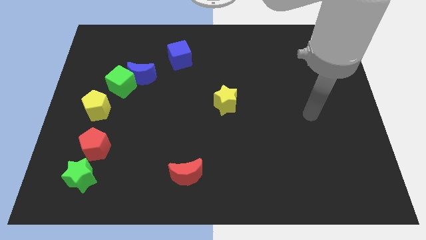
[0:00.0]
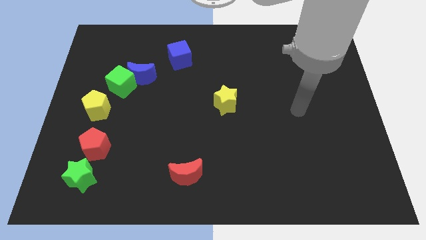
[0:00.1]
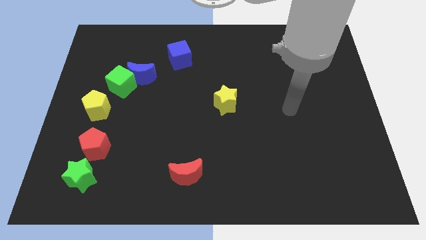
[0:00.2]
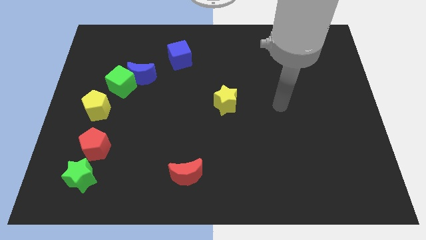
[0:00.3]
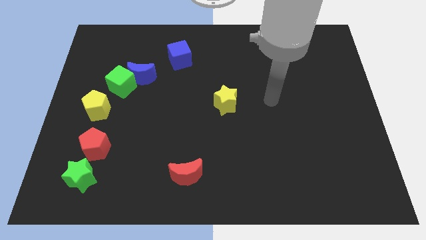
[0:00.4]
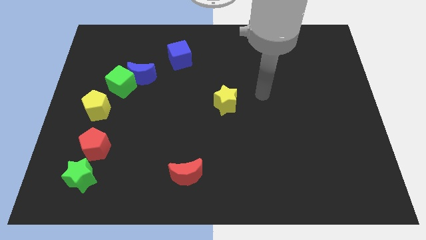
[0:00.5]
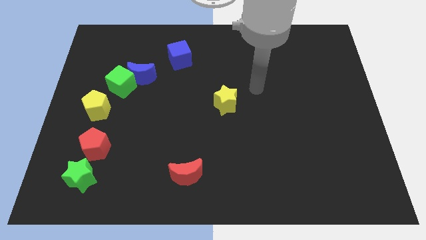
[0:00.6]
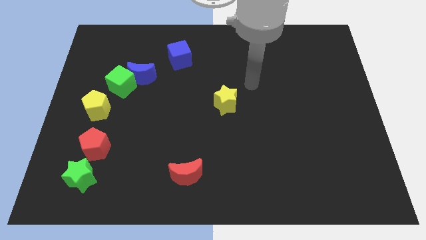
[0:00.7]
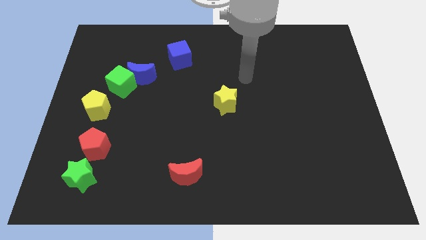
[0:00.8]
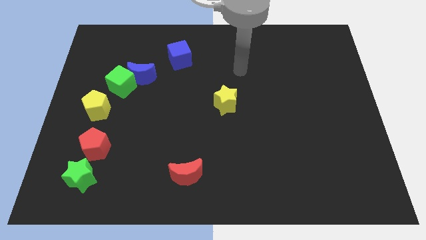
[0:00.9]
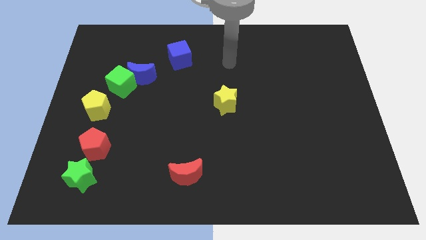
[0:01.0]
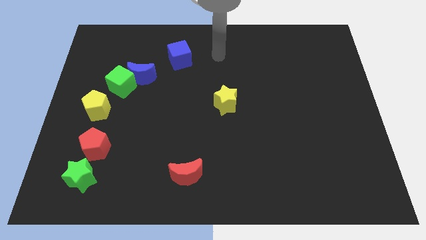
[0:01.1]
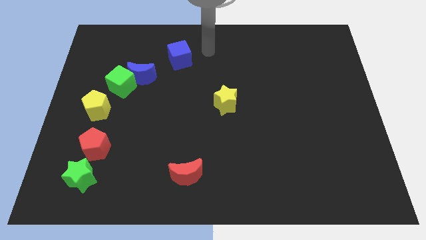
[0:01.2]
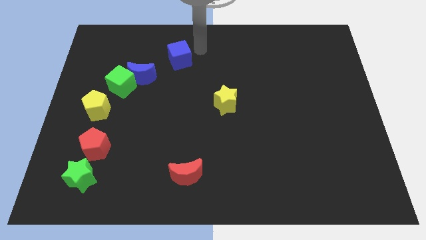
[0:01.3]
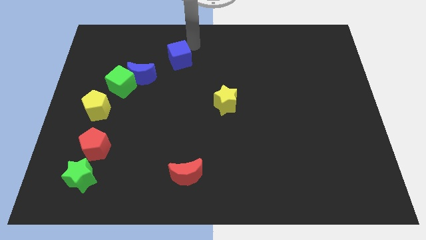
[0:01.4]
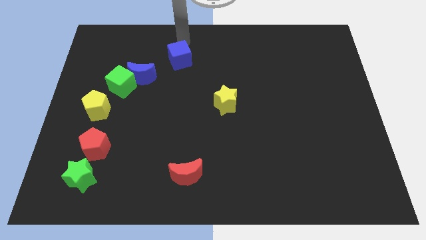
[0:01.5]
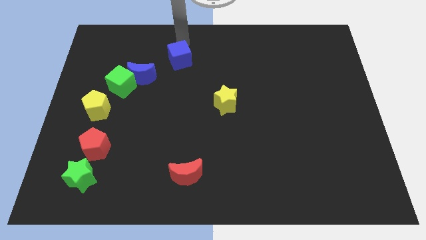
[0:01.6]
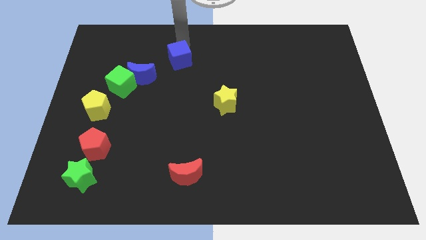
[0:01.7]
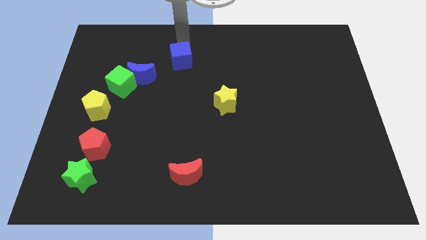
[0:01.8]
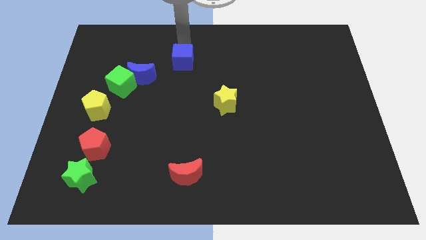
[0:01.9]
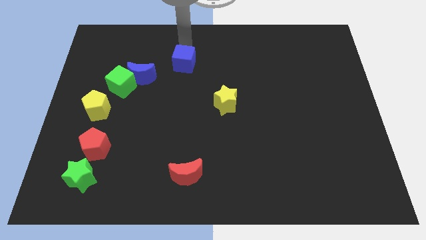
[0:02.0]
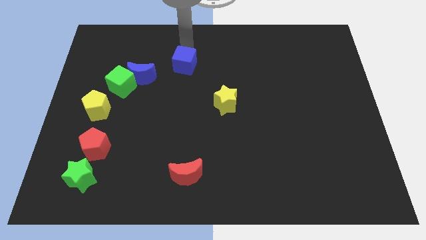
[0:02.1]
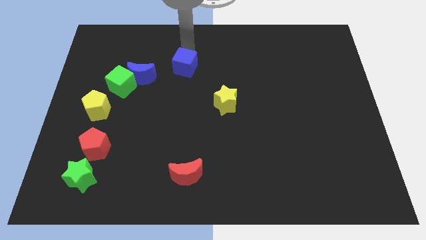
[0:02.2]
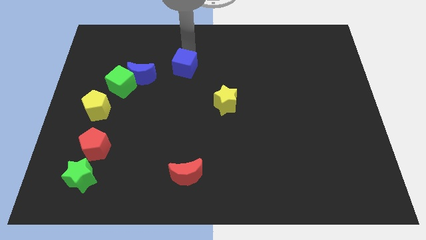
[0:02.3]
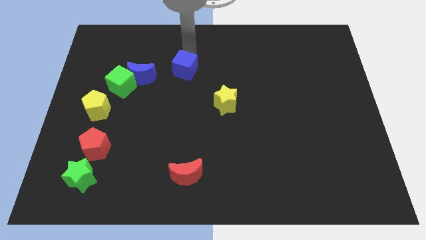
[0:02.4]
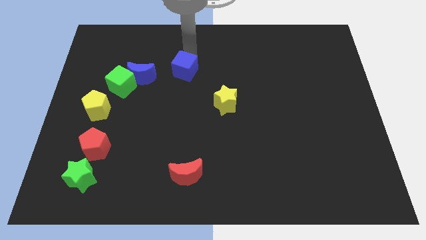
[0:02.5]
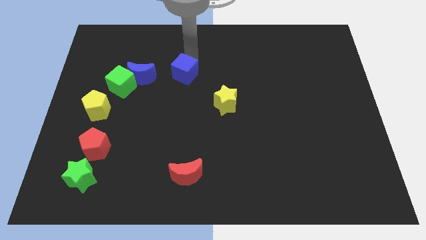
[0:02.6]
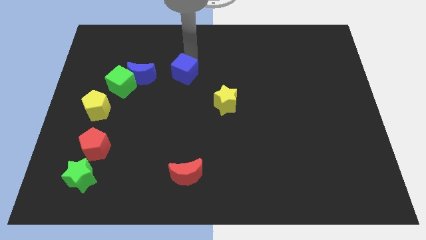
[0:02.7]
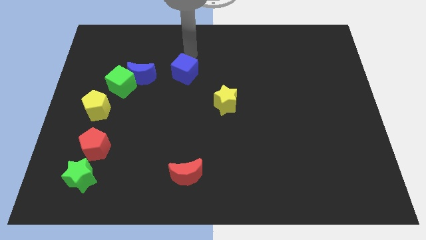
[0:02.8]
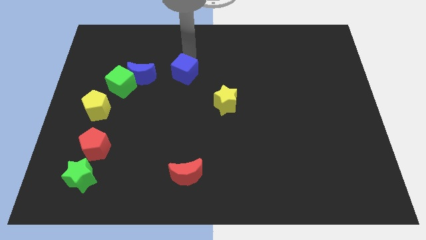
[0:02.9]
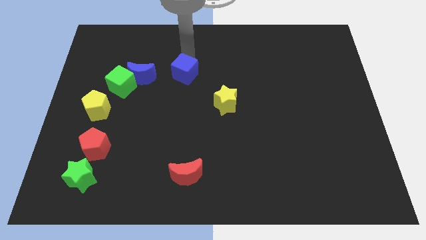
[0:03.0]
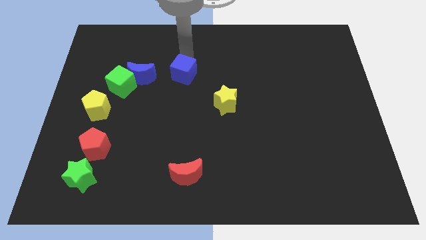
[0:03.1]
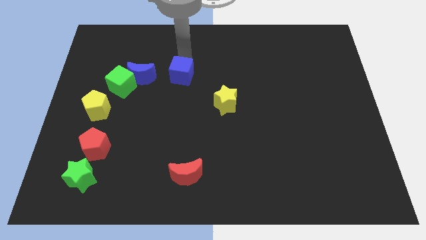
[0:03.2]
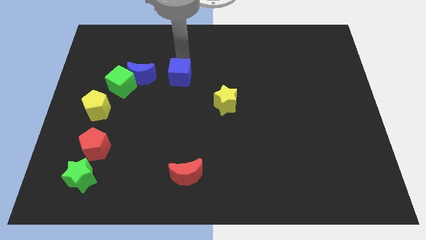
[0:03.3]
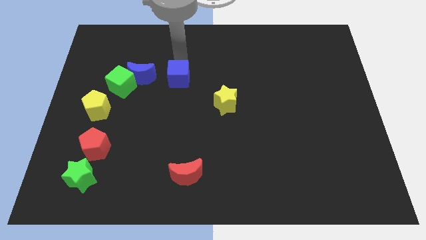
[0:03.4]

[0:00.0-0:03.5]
push the blue cube slightly downwards

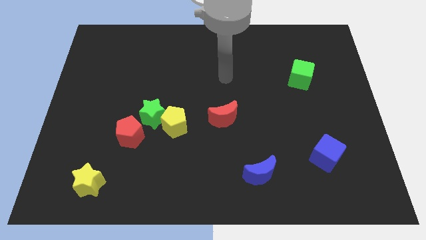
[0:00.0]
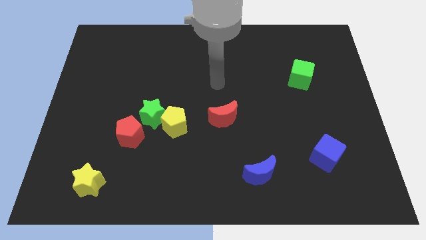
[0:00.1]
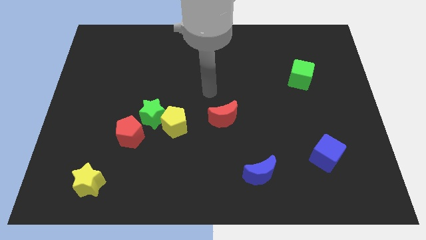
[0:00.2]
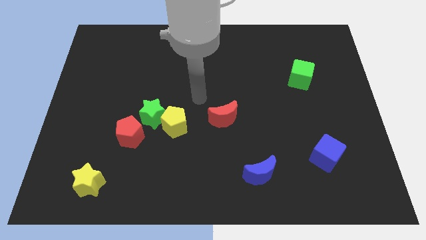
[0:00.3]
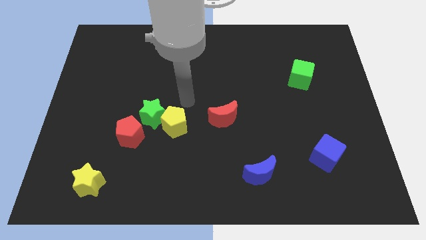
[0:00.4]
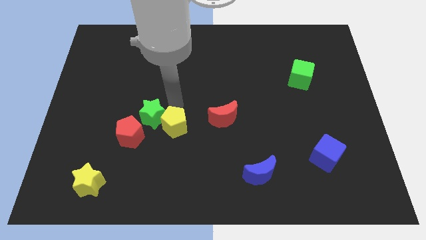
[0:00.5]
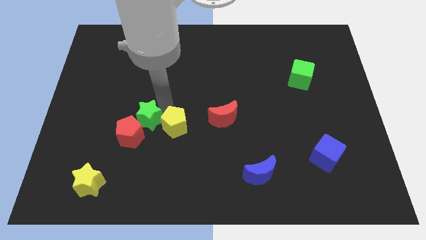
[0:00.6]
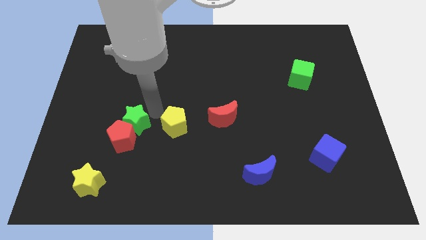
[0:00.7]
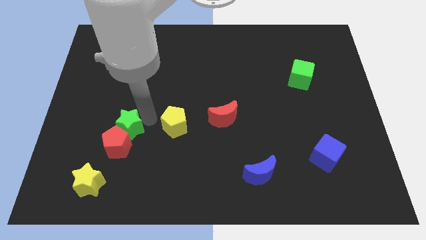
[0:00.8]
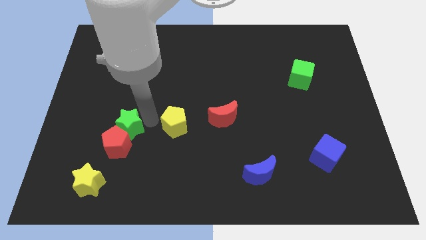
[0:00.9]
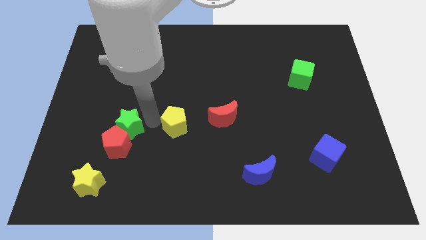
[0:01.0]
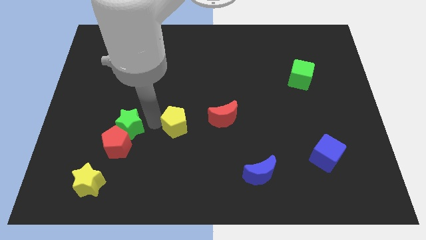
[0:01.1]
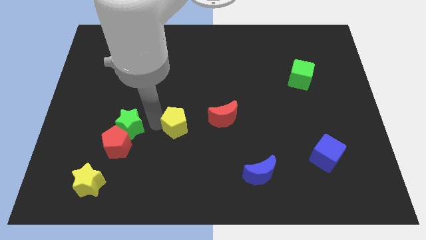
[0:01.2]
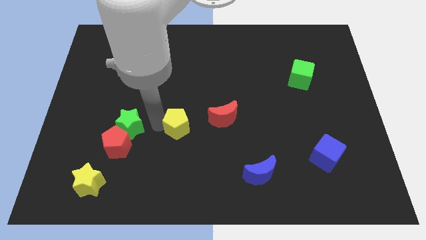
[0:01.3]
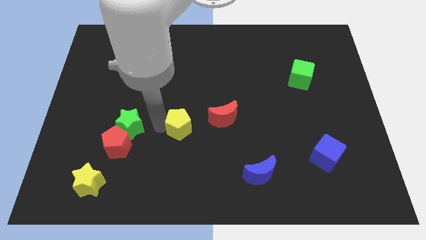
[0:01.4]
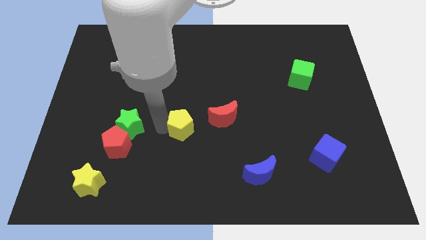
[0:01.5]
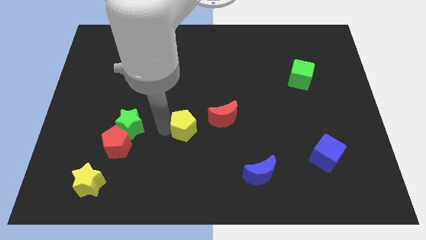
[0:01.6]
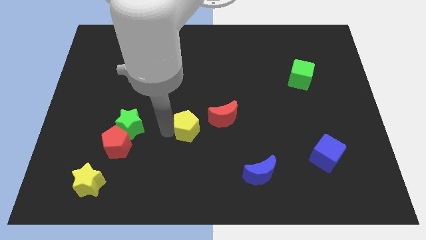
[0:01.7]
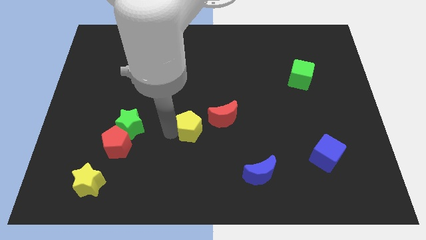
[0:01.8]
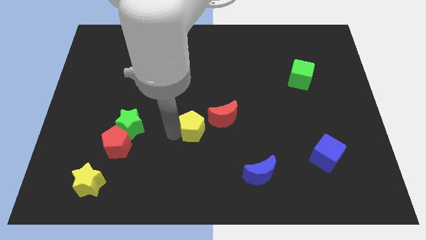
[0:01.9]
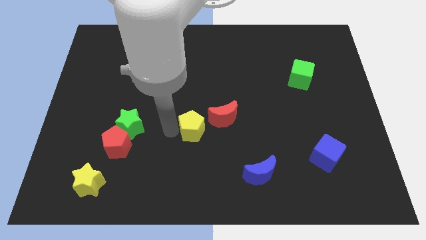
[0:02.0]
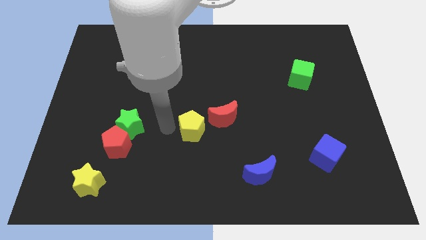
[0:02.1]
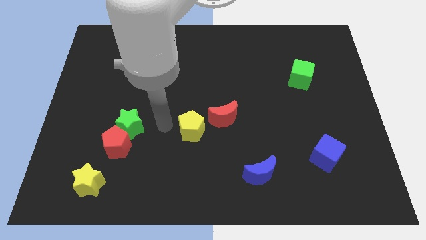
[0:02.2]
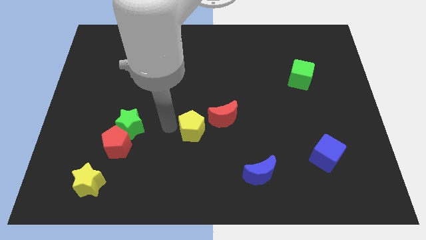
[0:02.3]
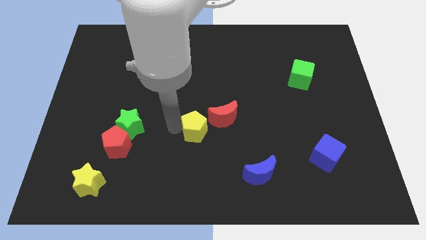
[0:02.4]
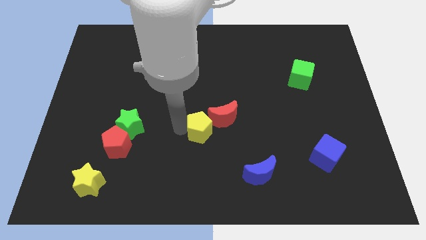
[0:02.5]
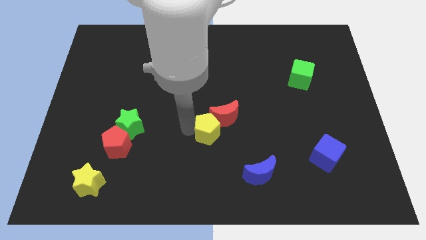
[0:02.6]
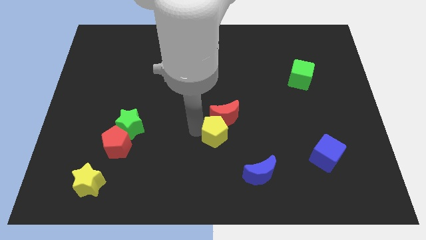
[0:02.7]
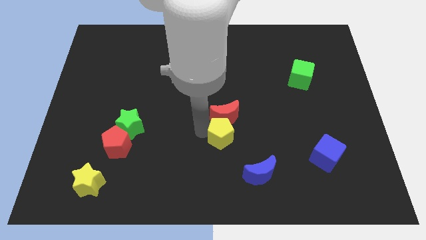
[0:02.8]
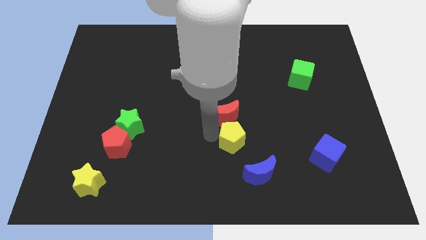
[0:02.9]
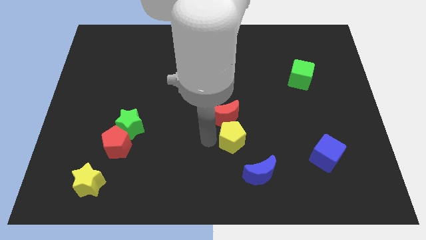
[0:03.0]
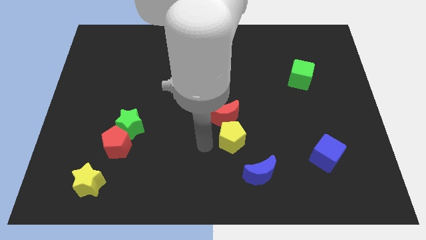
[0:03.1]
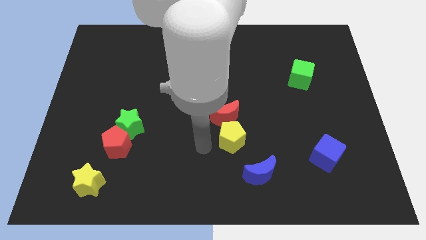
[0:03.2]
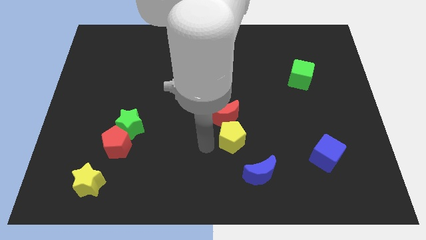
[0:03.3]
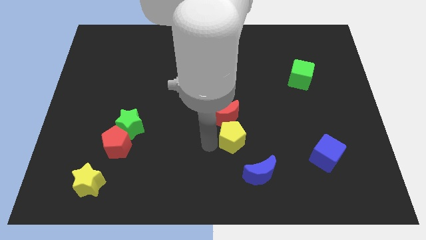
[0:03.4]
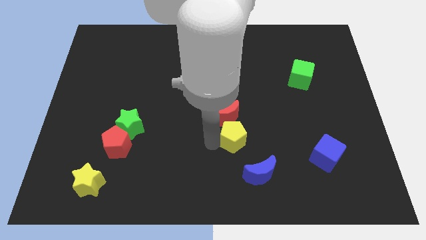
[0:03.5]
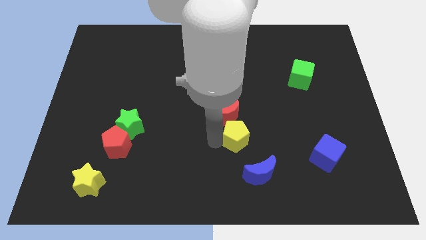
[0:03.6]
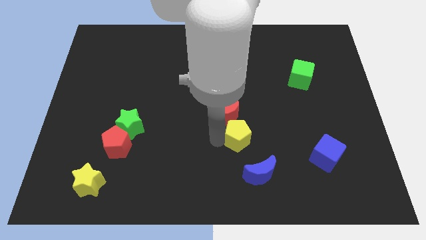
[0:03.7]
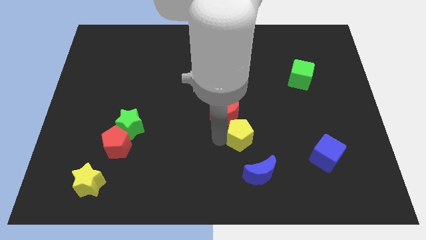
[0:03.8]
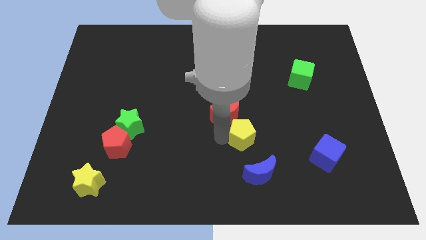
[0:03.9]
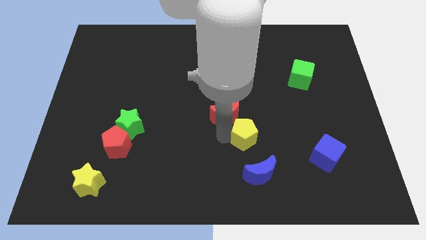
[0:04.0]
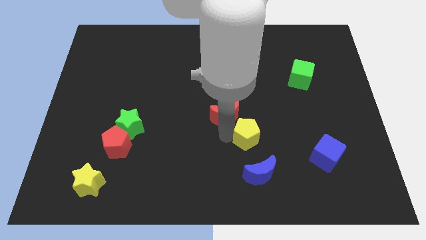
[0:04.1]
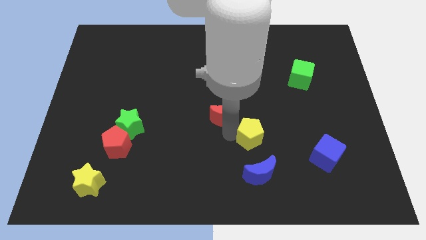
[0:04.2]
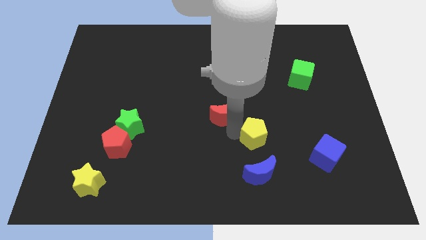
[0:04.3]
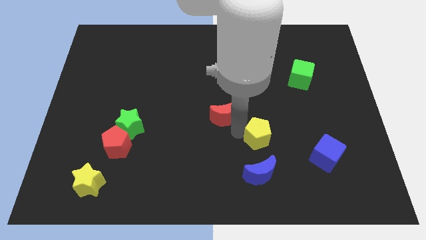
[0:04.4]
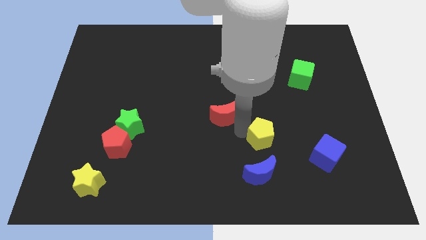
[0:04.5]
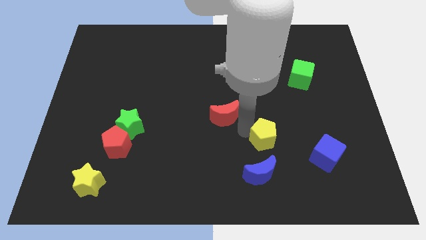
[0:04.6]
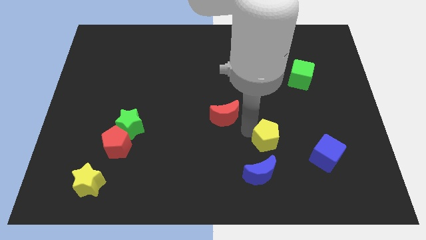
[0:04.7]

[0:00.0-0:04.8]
push the yellow pentagon to the right
